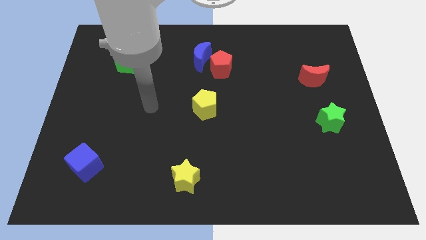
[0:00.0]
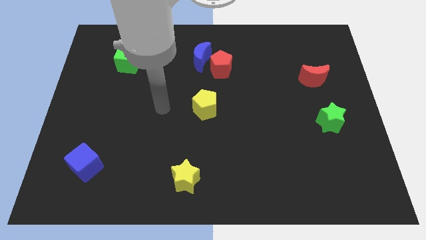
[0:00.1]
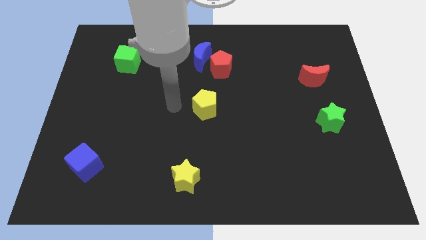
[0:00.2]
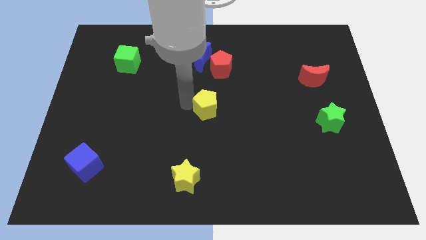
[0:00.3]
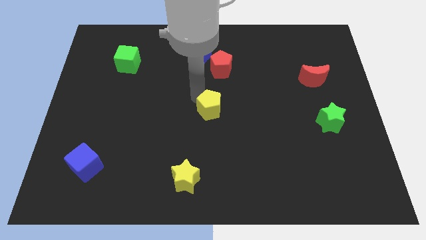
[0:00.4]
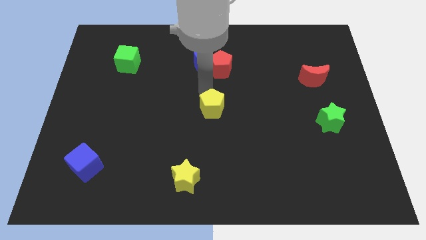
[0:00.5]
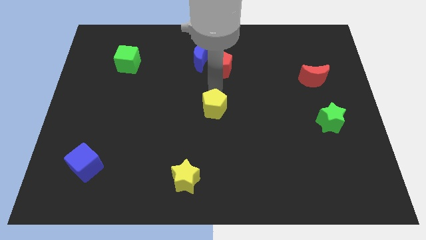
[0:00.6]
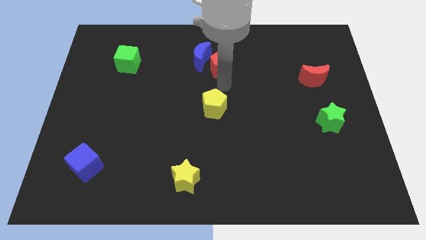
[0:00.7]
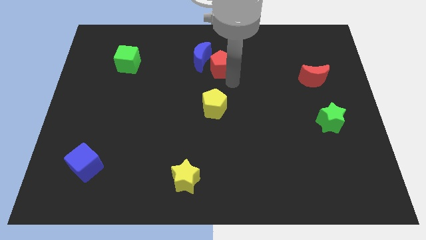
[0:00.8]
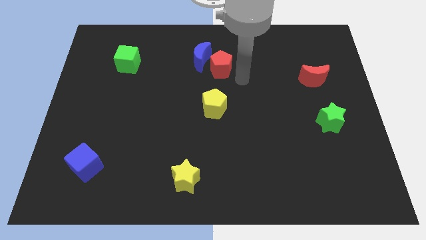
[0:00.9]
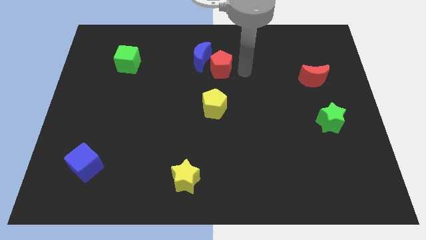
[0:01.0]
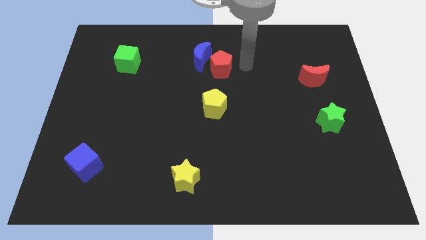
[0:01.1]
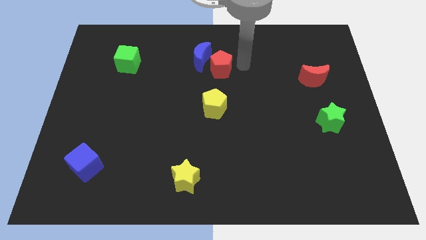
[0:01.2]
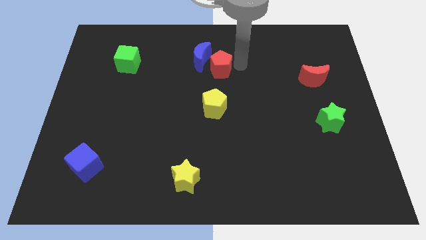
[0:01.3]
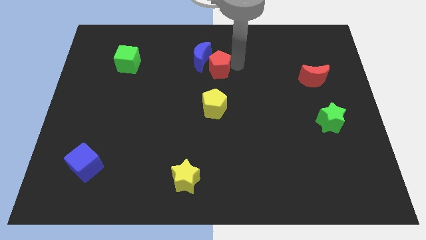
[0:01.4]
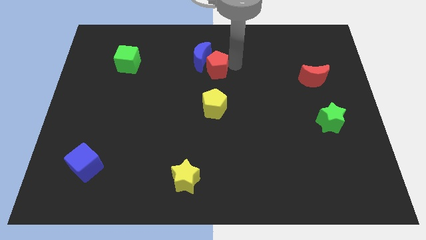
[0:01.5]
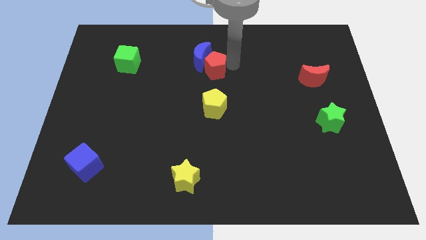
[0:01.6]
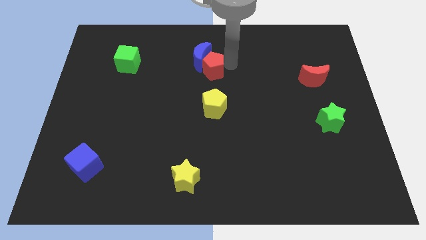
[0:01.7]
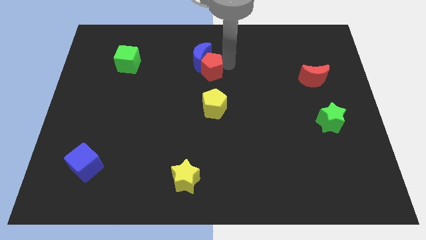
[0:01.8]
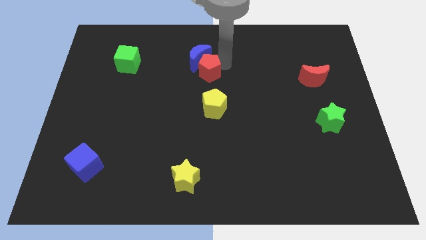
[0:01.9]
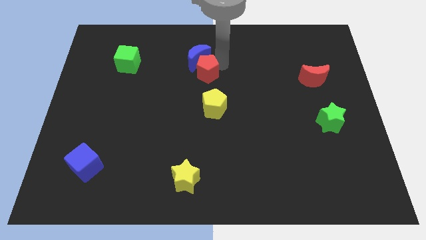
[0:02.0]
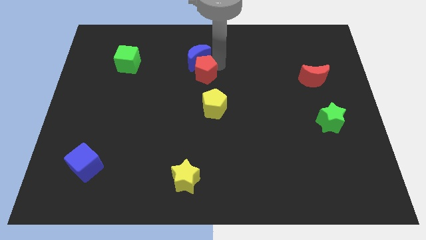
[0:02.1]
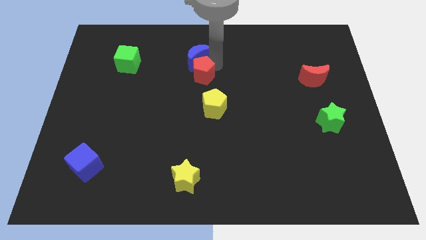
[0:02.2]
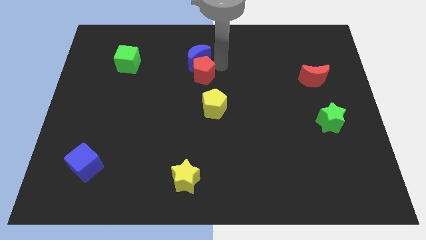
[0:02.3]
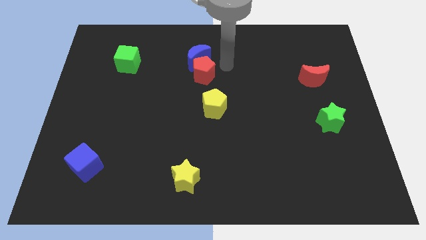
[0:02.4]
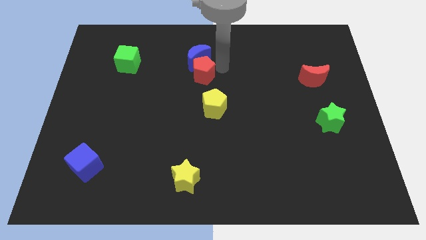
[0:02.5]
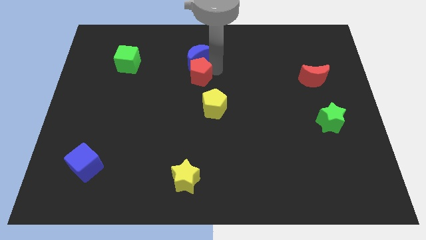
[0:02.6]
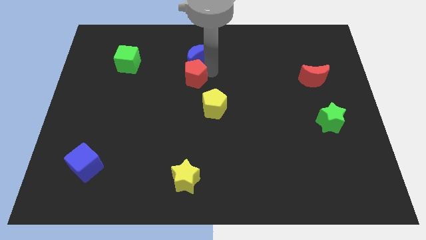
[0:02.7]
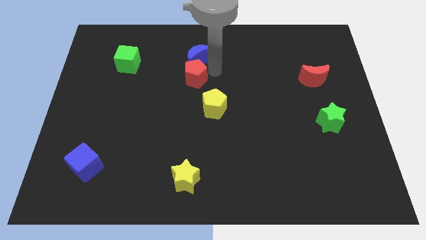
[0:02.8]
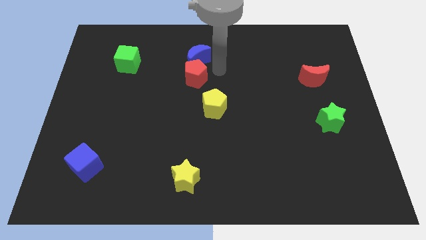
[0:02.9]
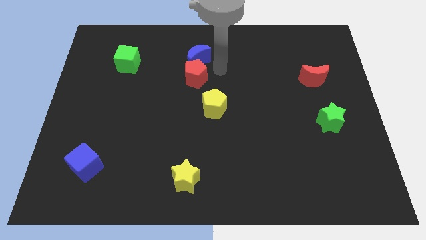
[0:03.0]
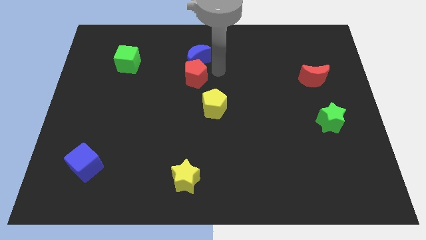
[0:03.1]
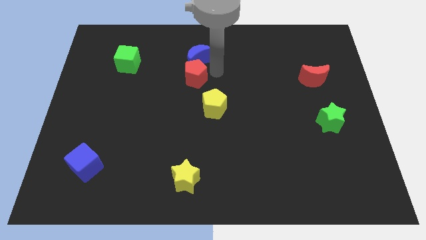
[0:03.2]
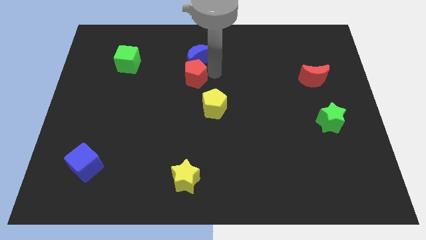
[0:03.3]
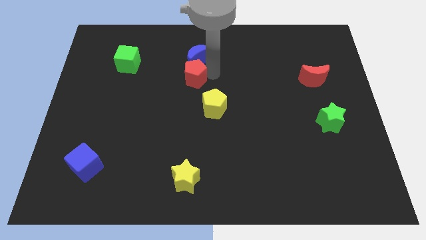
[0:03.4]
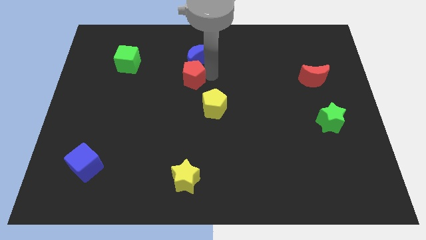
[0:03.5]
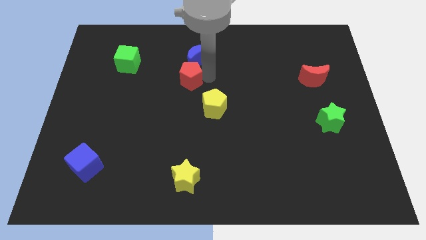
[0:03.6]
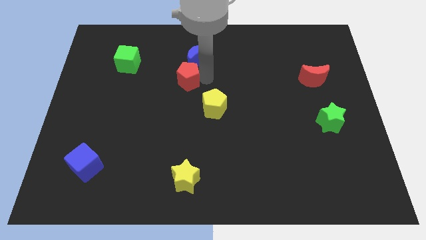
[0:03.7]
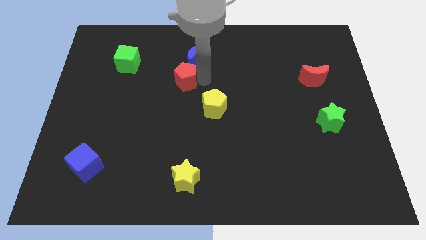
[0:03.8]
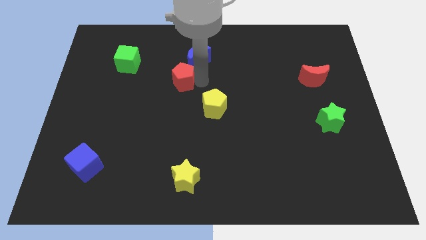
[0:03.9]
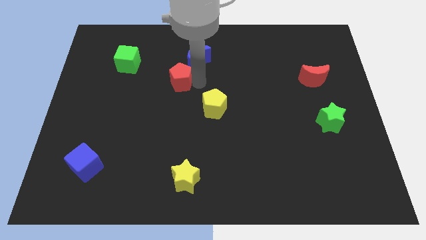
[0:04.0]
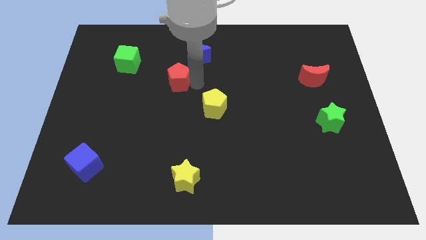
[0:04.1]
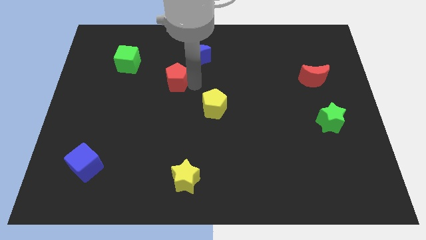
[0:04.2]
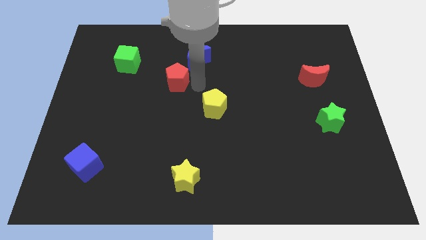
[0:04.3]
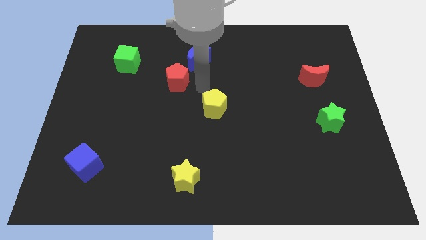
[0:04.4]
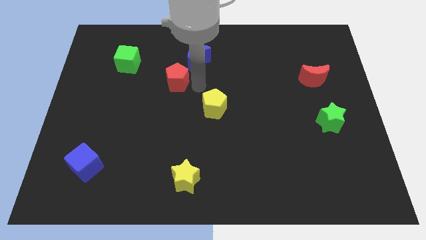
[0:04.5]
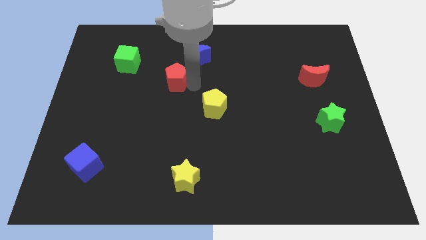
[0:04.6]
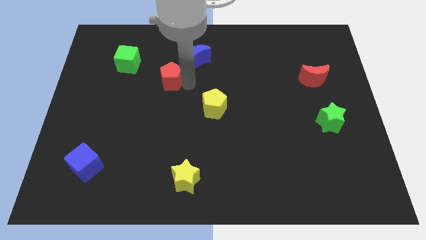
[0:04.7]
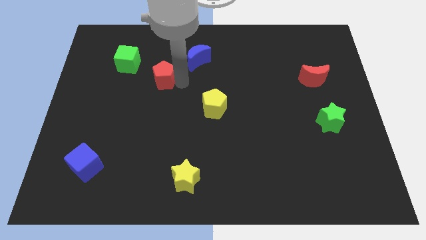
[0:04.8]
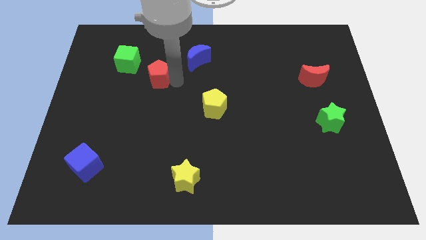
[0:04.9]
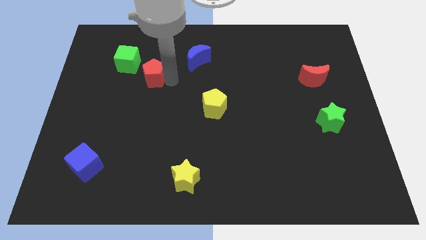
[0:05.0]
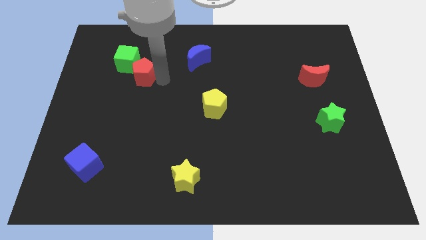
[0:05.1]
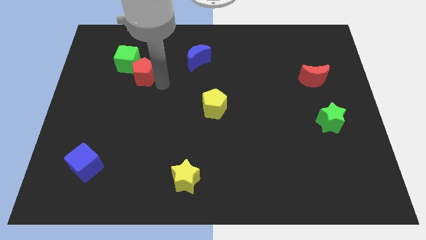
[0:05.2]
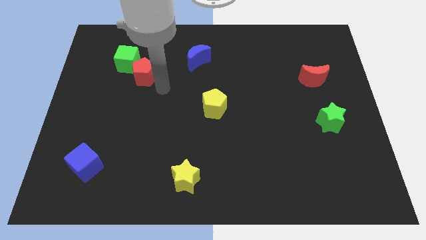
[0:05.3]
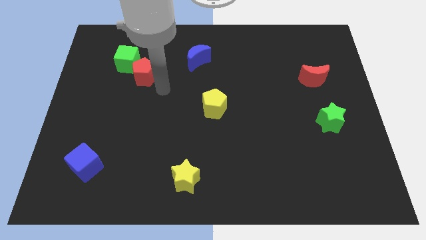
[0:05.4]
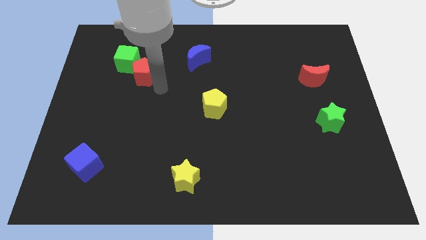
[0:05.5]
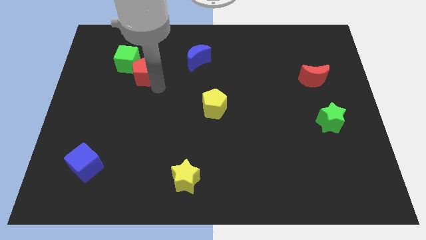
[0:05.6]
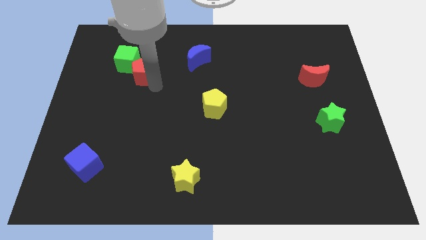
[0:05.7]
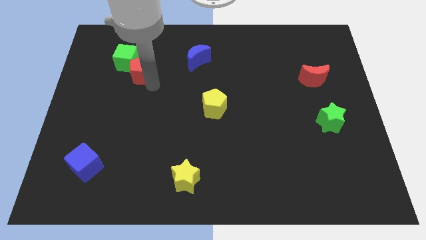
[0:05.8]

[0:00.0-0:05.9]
push the red pentagon to the green cube
